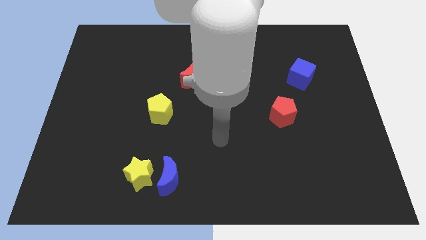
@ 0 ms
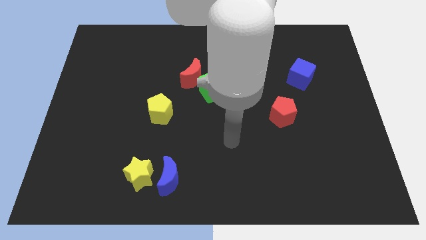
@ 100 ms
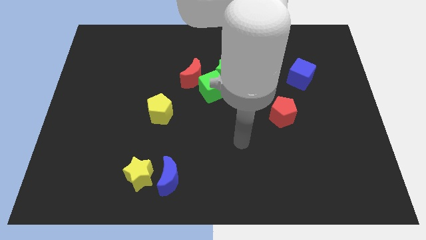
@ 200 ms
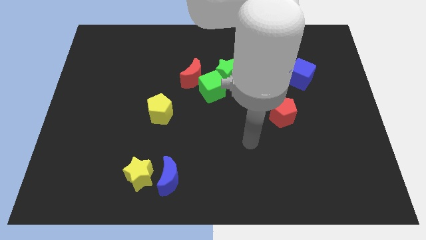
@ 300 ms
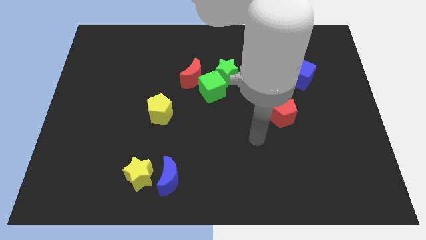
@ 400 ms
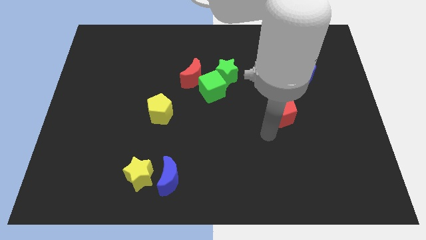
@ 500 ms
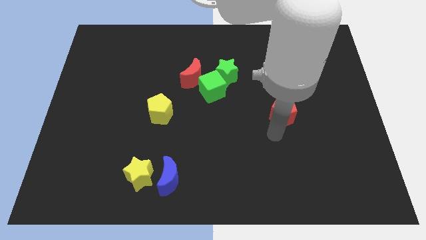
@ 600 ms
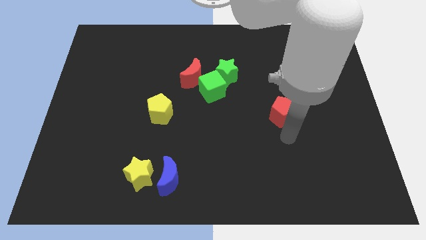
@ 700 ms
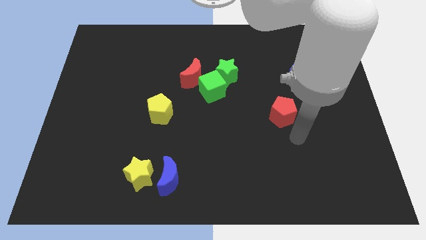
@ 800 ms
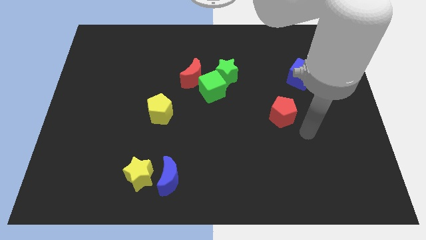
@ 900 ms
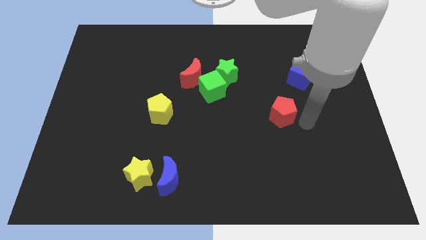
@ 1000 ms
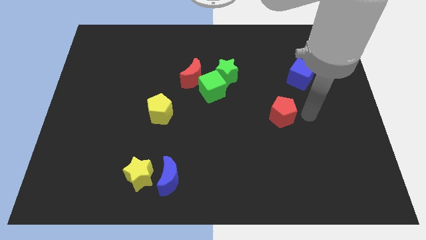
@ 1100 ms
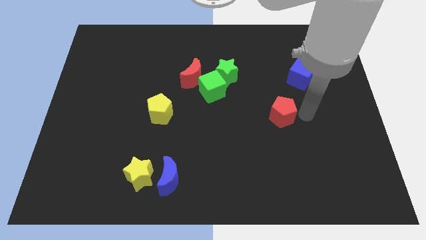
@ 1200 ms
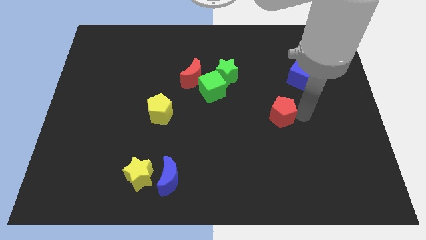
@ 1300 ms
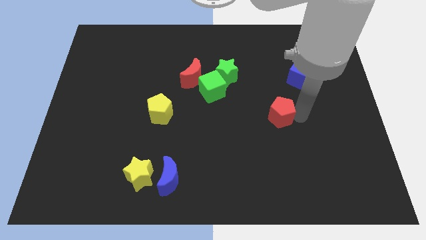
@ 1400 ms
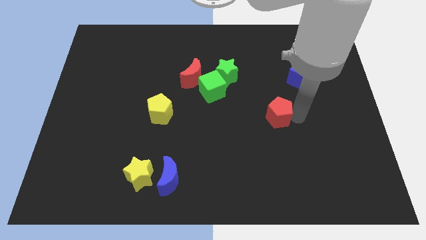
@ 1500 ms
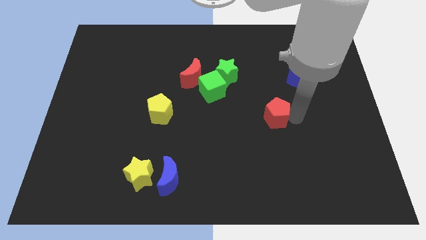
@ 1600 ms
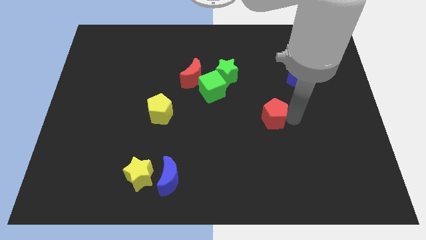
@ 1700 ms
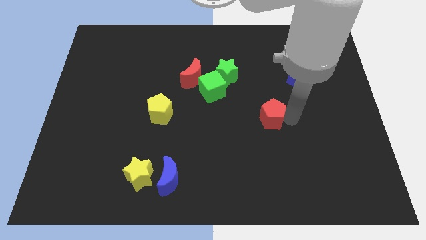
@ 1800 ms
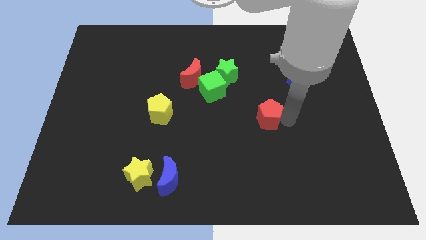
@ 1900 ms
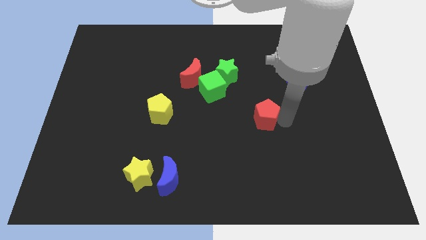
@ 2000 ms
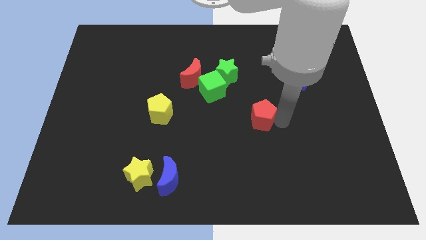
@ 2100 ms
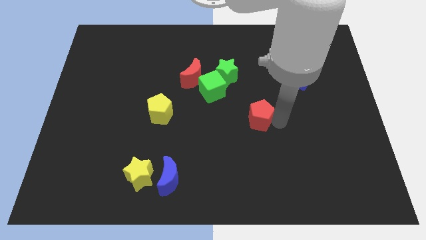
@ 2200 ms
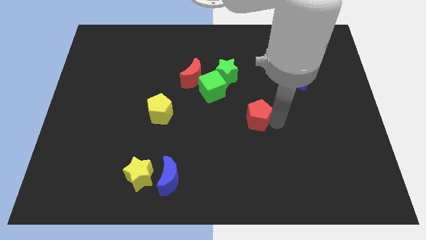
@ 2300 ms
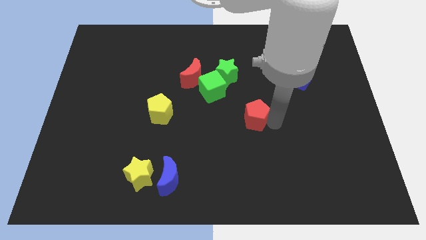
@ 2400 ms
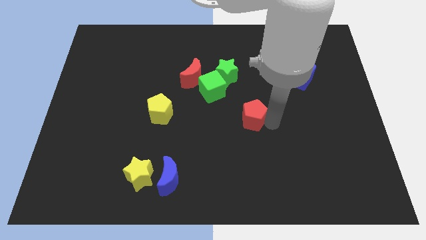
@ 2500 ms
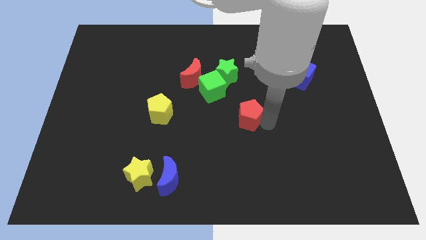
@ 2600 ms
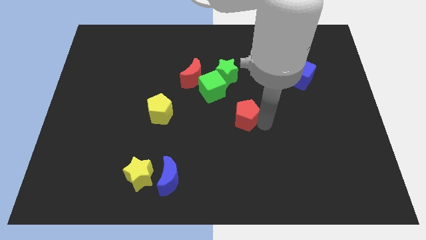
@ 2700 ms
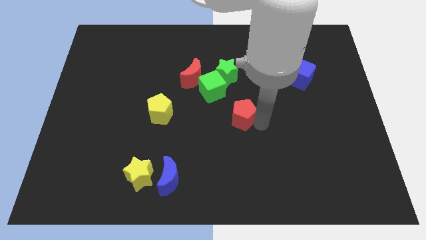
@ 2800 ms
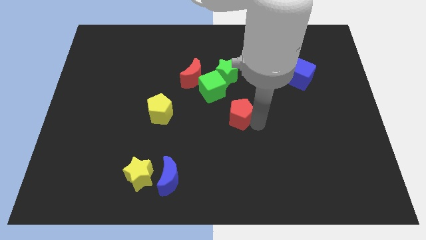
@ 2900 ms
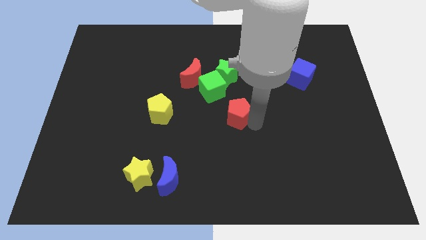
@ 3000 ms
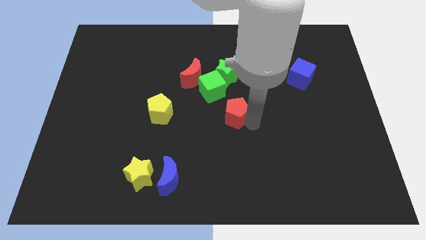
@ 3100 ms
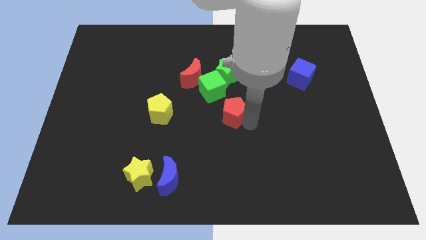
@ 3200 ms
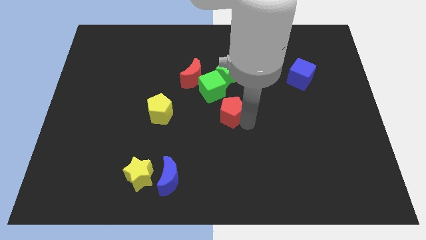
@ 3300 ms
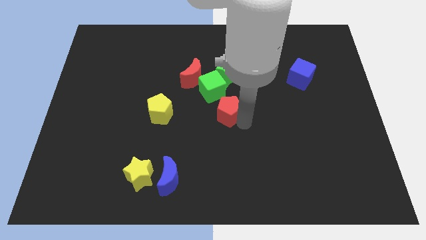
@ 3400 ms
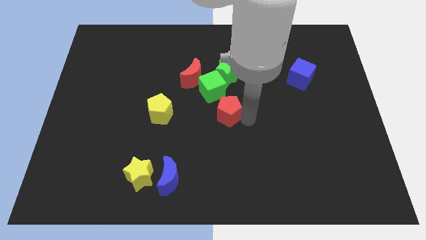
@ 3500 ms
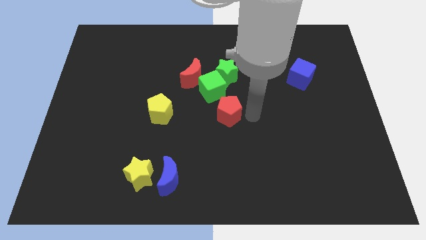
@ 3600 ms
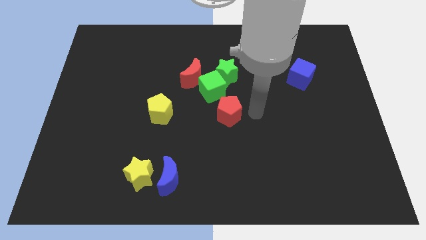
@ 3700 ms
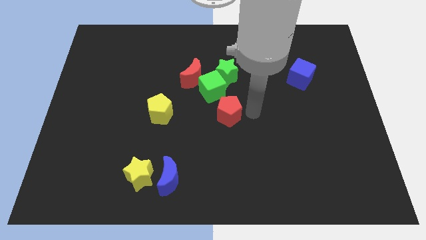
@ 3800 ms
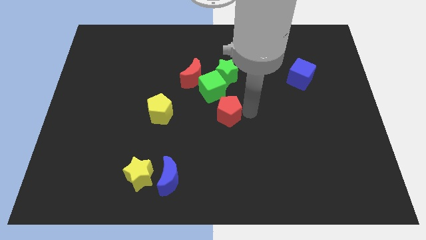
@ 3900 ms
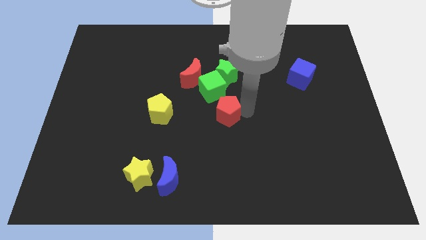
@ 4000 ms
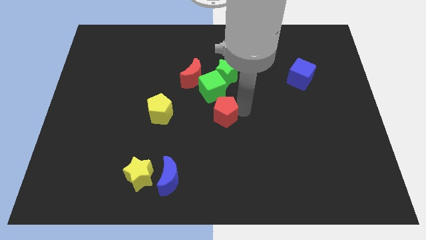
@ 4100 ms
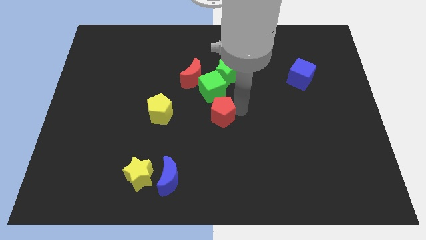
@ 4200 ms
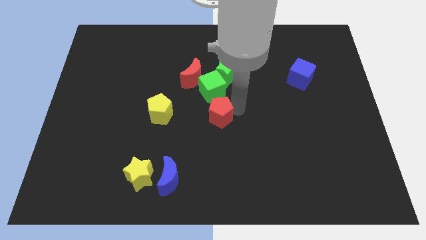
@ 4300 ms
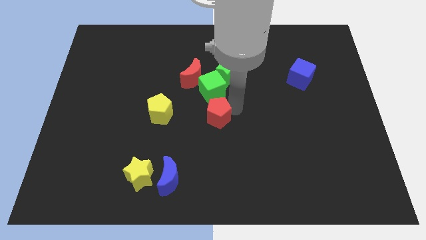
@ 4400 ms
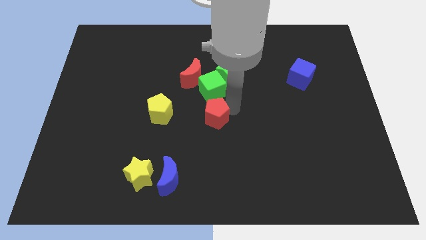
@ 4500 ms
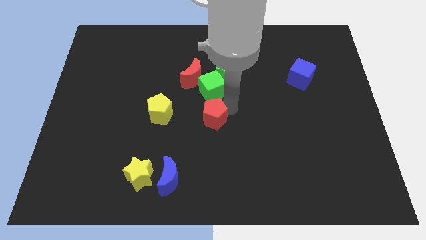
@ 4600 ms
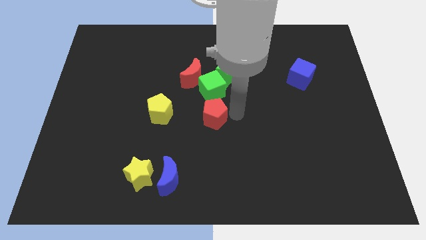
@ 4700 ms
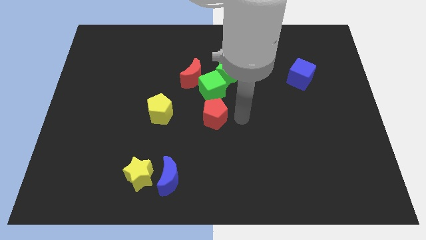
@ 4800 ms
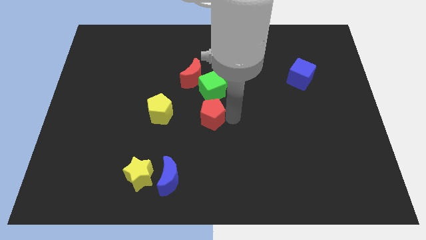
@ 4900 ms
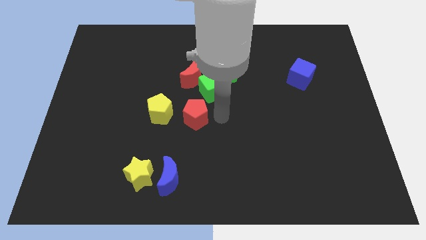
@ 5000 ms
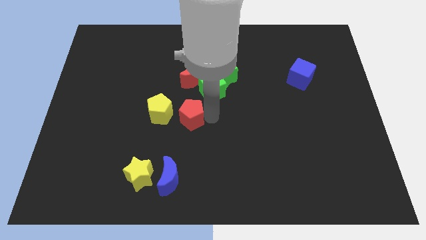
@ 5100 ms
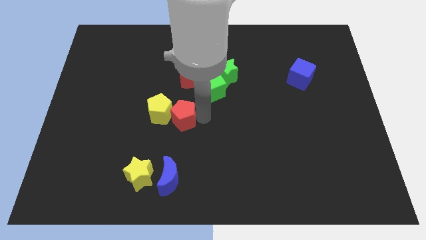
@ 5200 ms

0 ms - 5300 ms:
move the red pentagon next to the yellow pentagon

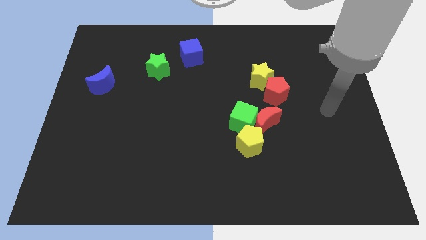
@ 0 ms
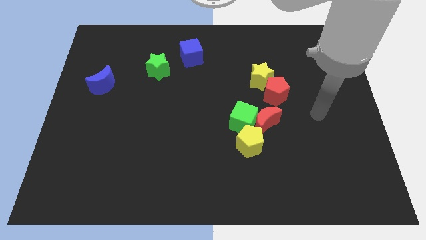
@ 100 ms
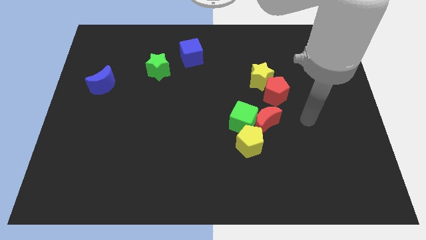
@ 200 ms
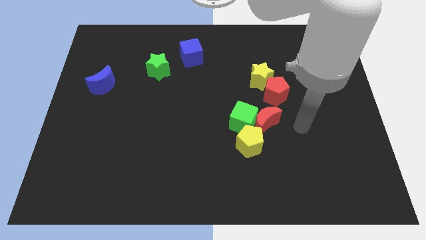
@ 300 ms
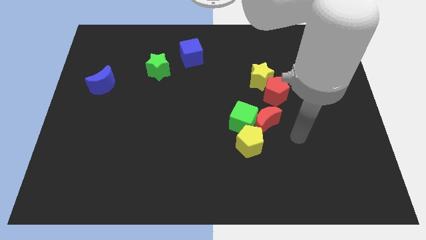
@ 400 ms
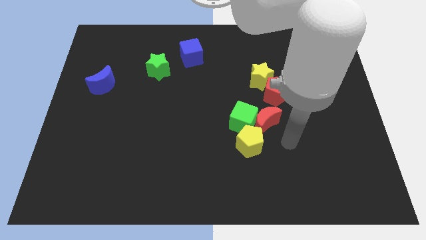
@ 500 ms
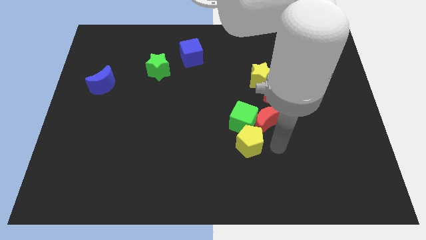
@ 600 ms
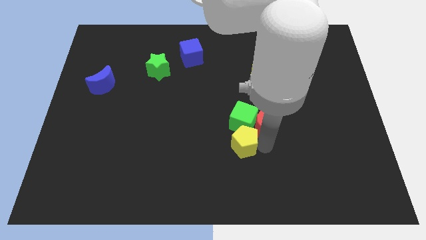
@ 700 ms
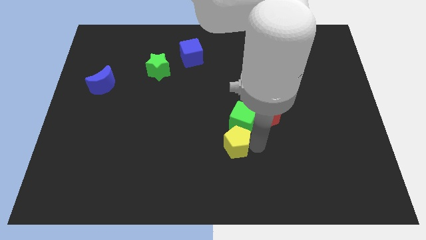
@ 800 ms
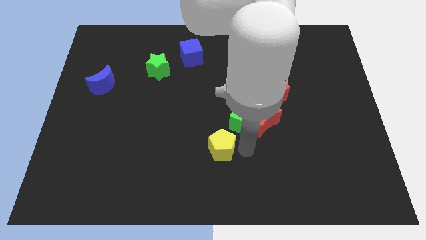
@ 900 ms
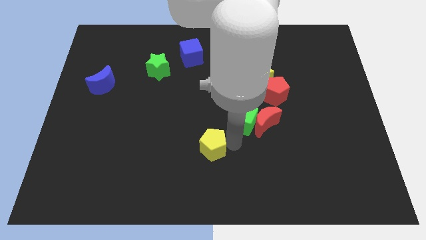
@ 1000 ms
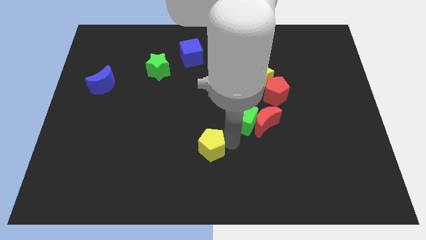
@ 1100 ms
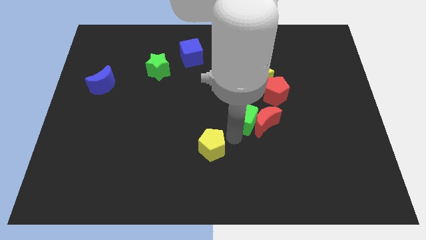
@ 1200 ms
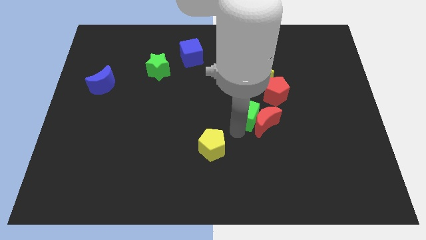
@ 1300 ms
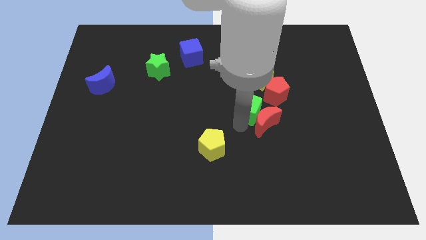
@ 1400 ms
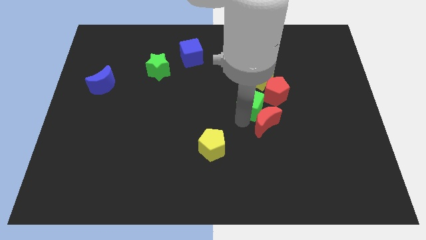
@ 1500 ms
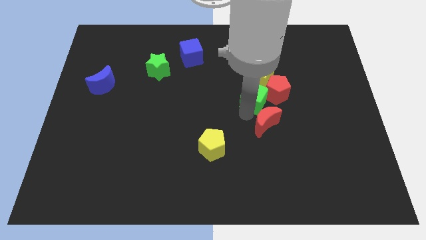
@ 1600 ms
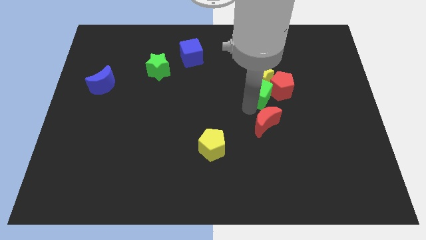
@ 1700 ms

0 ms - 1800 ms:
put the green cube towards the yellow star
